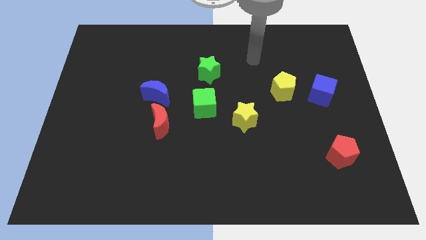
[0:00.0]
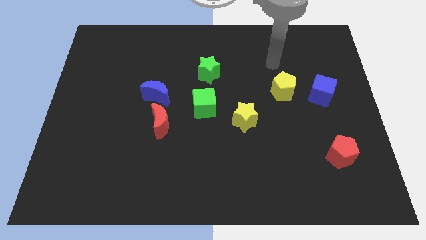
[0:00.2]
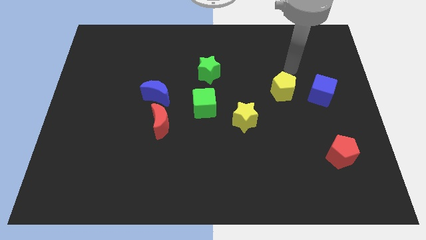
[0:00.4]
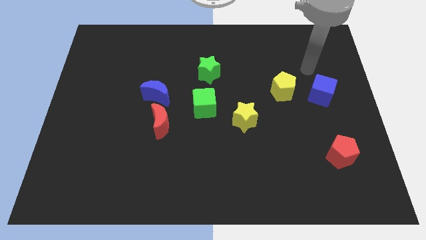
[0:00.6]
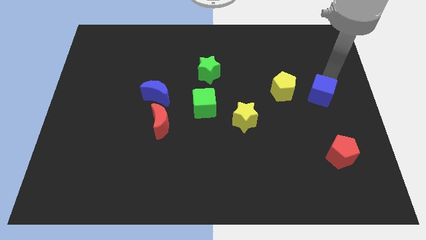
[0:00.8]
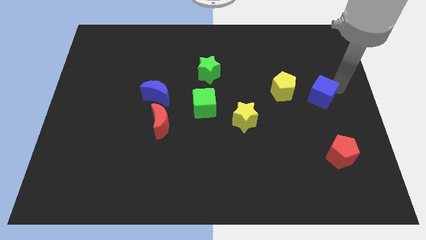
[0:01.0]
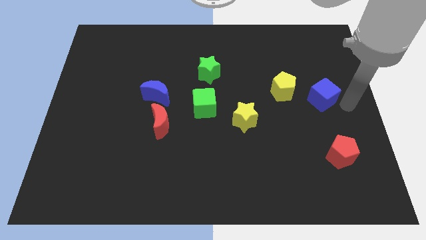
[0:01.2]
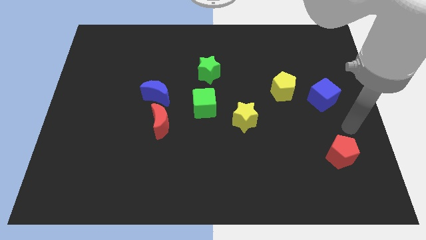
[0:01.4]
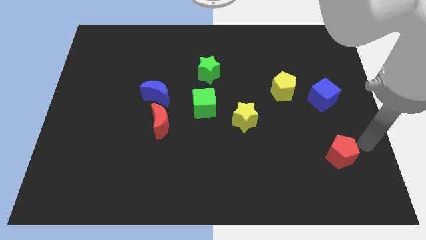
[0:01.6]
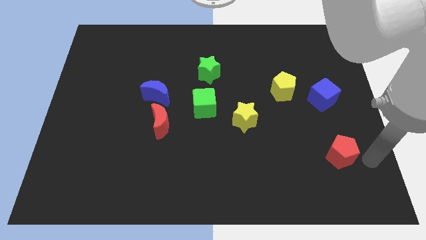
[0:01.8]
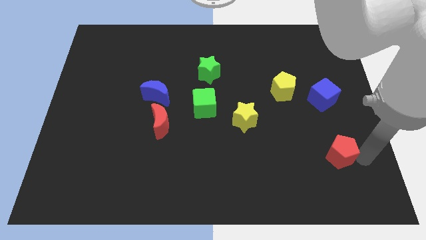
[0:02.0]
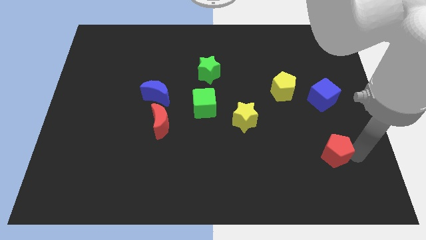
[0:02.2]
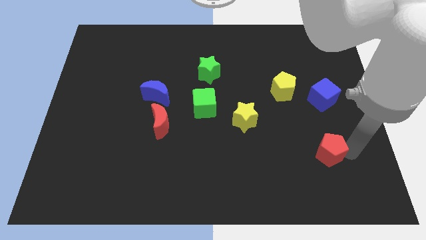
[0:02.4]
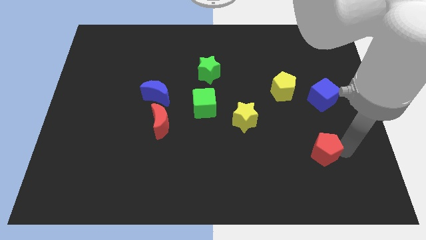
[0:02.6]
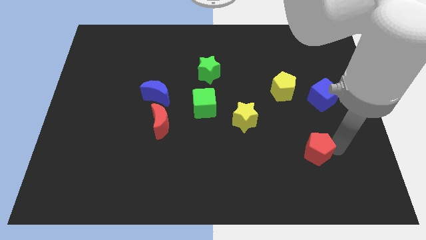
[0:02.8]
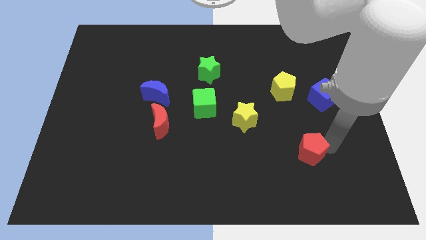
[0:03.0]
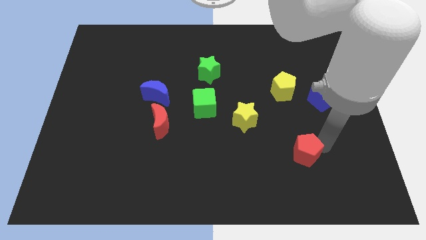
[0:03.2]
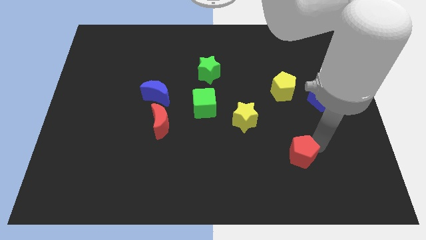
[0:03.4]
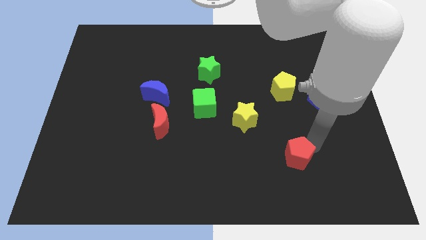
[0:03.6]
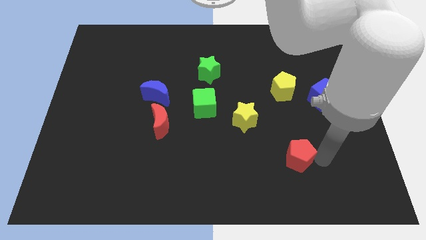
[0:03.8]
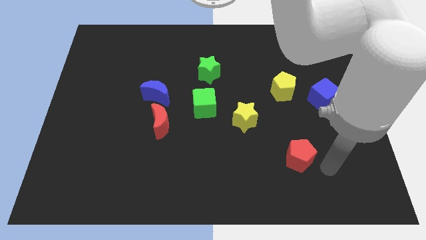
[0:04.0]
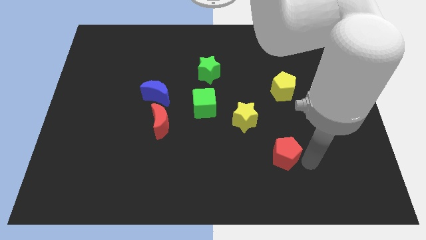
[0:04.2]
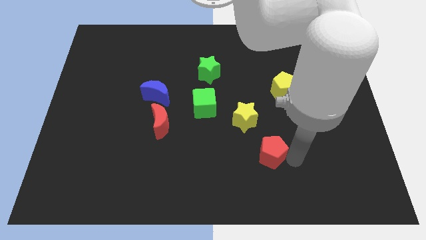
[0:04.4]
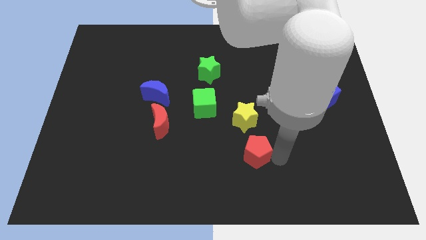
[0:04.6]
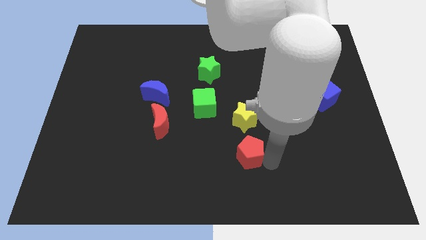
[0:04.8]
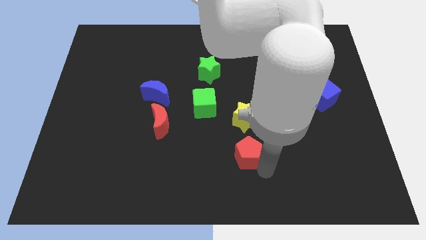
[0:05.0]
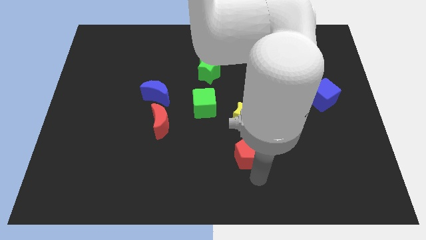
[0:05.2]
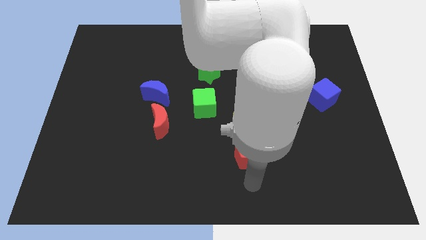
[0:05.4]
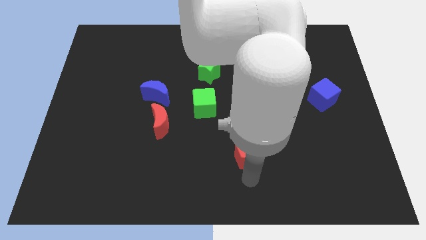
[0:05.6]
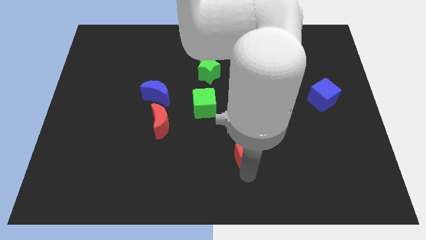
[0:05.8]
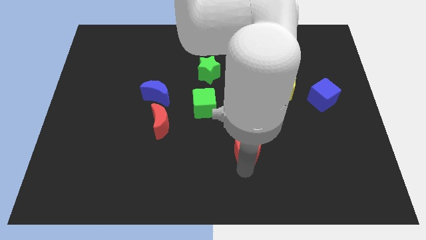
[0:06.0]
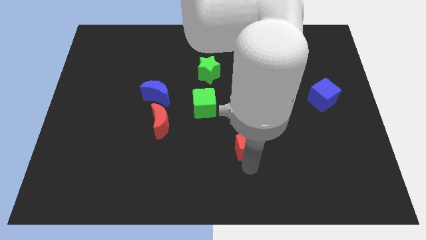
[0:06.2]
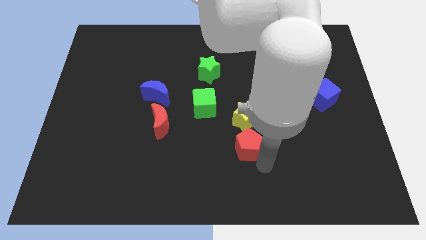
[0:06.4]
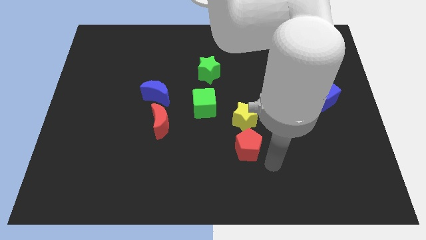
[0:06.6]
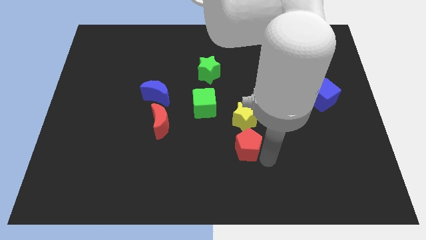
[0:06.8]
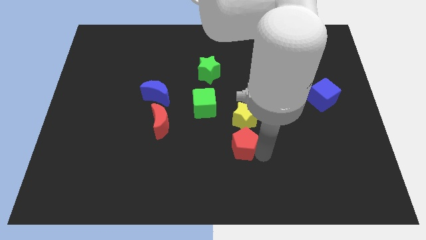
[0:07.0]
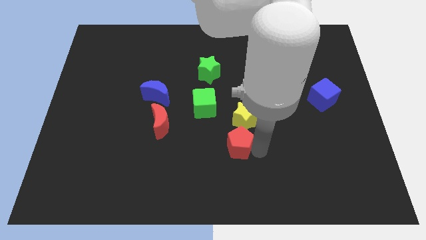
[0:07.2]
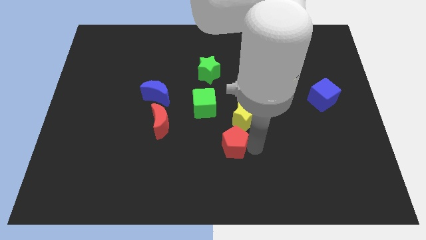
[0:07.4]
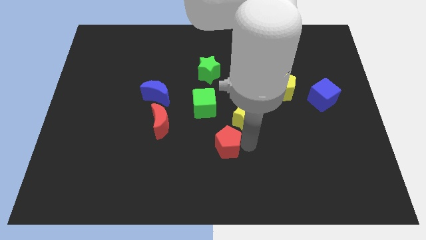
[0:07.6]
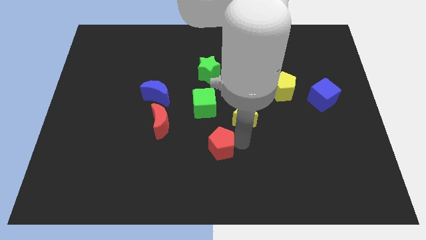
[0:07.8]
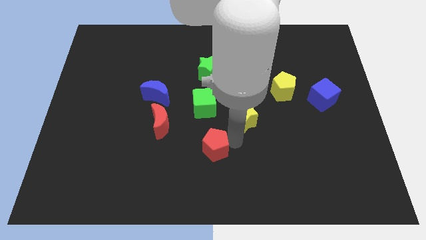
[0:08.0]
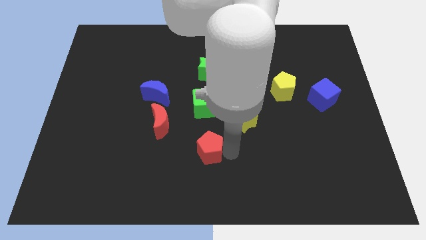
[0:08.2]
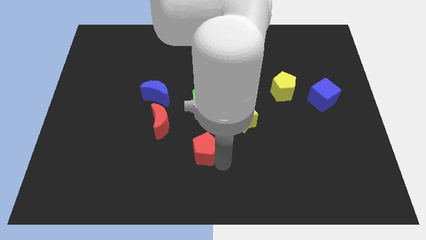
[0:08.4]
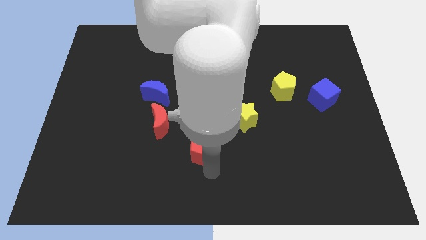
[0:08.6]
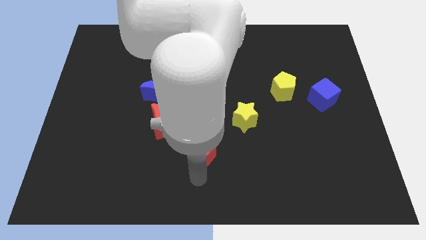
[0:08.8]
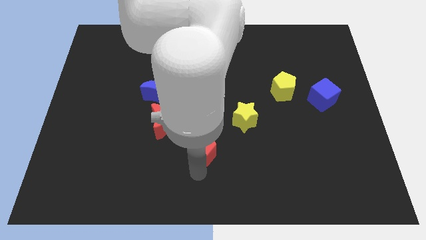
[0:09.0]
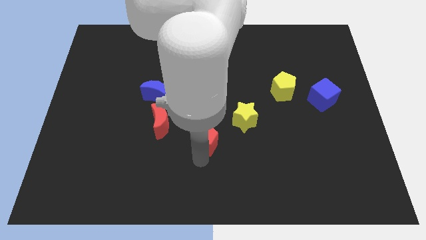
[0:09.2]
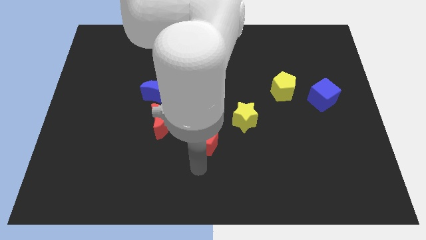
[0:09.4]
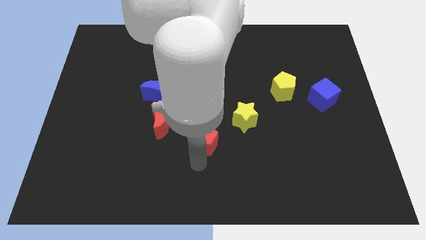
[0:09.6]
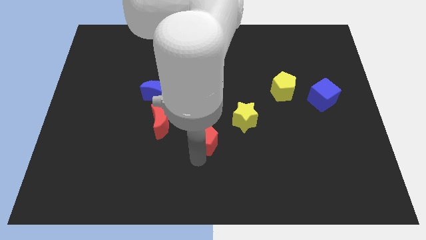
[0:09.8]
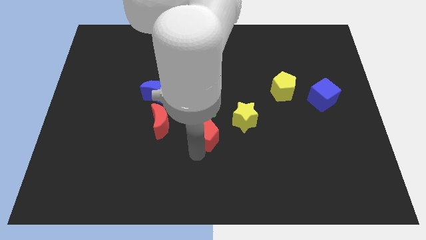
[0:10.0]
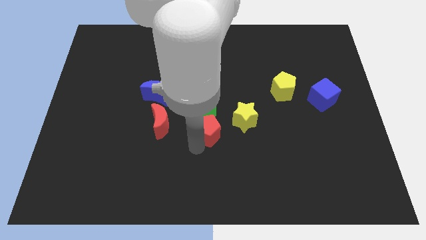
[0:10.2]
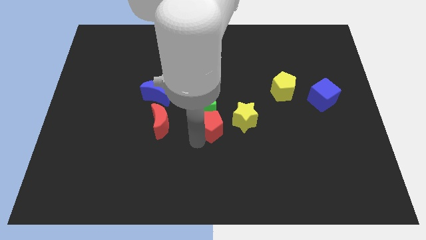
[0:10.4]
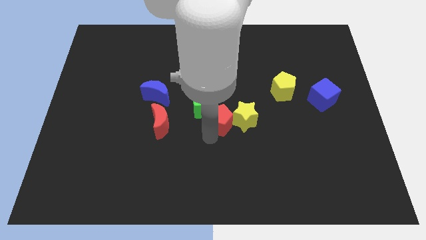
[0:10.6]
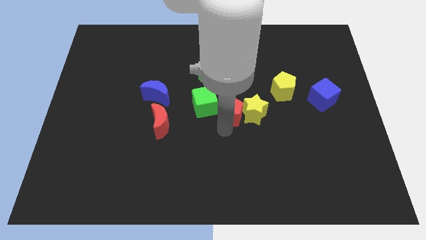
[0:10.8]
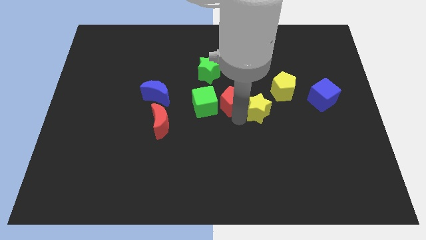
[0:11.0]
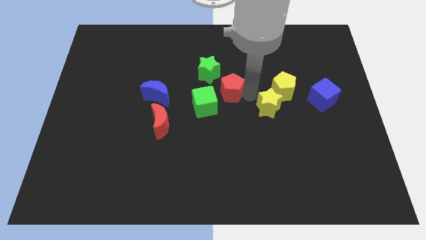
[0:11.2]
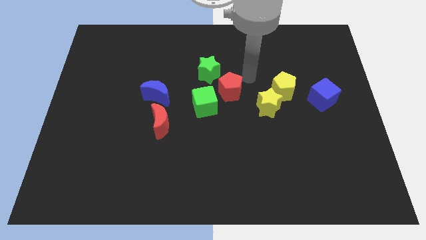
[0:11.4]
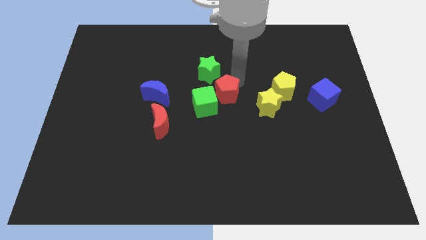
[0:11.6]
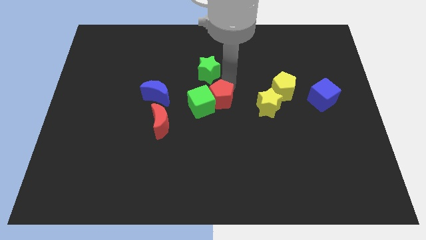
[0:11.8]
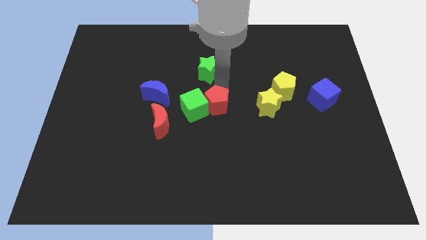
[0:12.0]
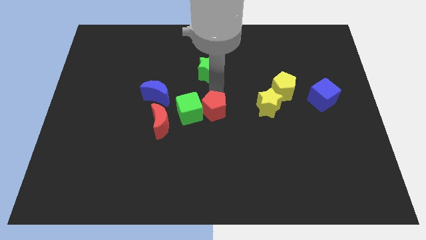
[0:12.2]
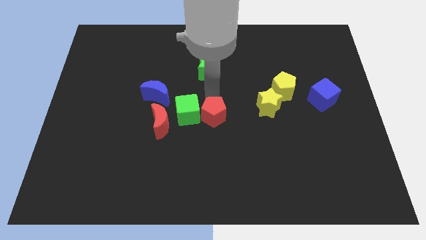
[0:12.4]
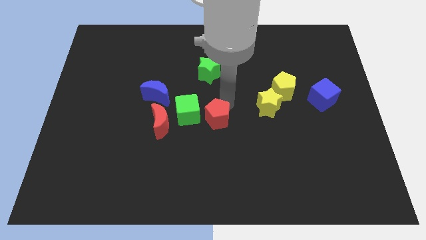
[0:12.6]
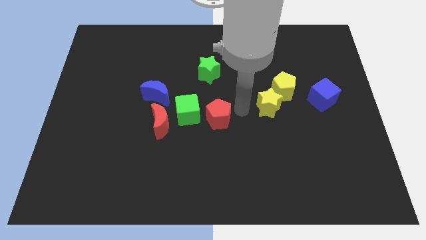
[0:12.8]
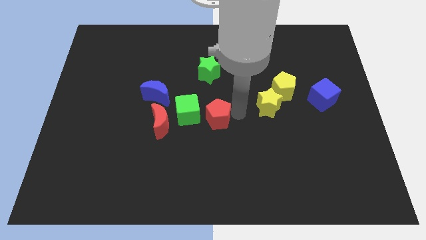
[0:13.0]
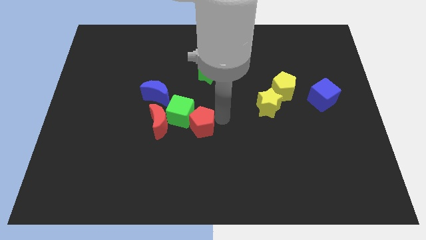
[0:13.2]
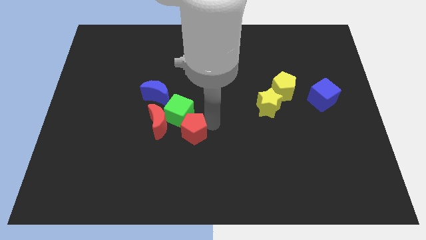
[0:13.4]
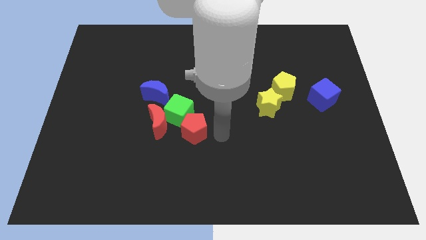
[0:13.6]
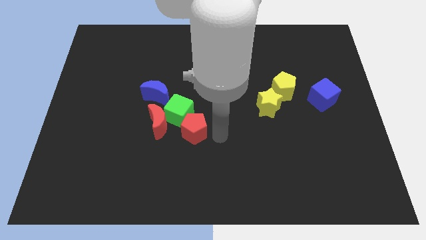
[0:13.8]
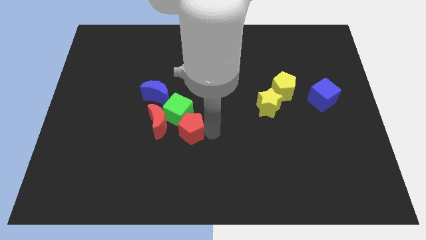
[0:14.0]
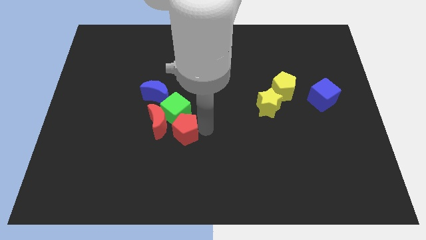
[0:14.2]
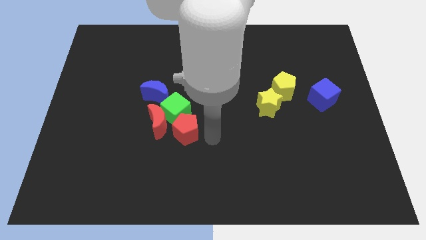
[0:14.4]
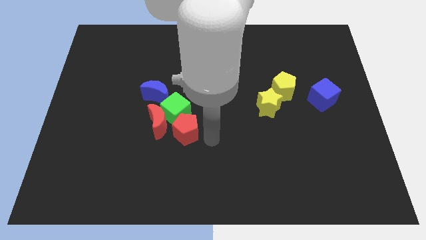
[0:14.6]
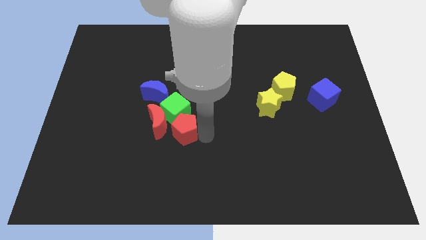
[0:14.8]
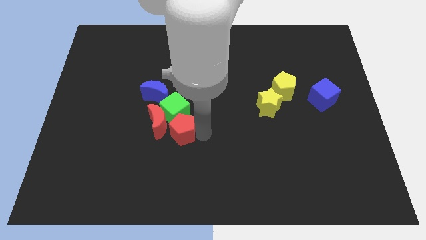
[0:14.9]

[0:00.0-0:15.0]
slide the red pentagon to the red moon
